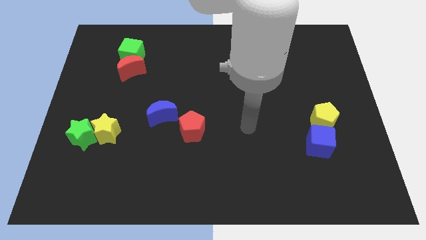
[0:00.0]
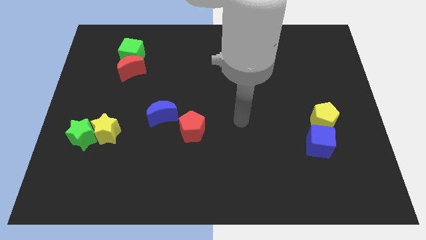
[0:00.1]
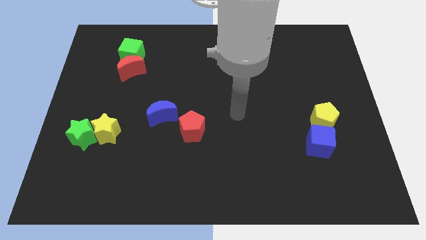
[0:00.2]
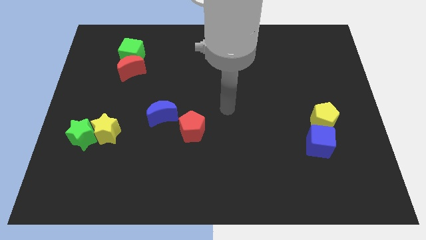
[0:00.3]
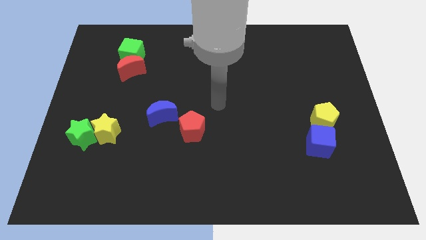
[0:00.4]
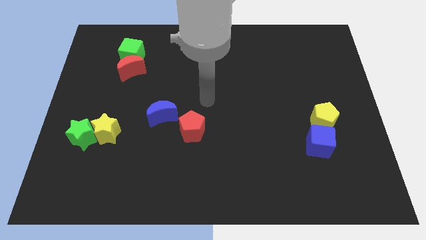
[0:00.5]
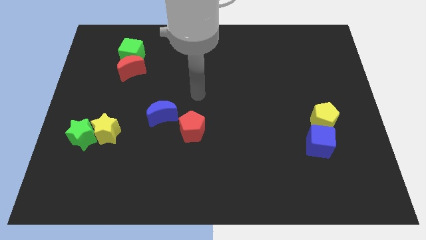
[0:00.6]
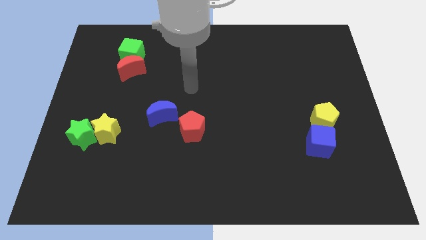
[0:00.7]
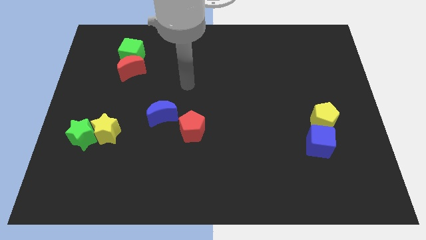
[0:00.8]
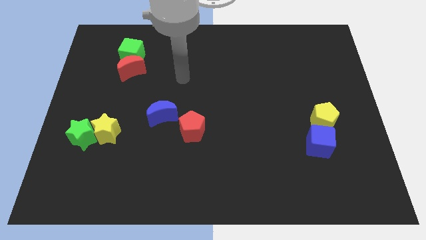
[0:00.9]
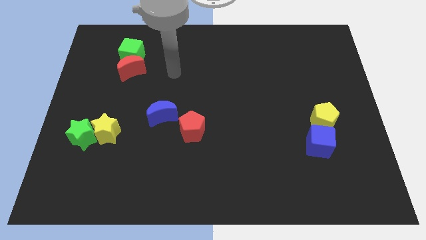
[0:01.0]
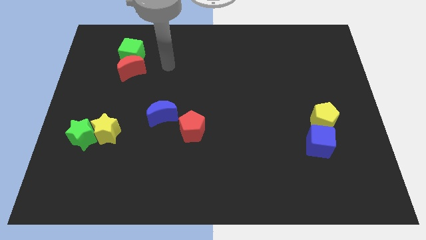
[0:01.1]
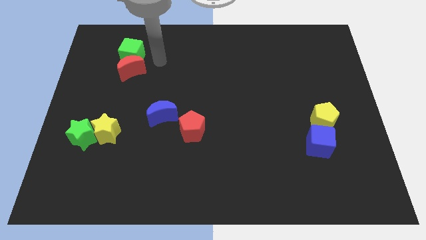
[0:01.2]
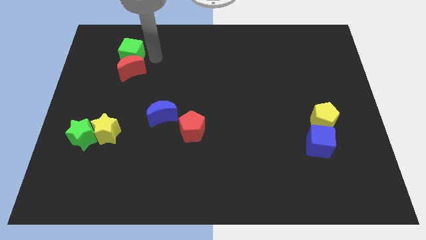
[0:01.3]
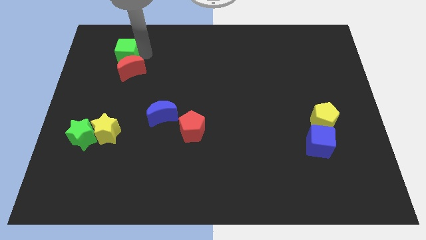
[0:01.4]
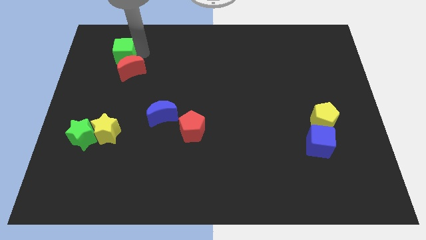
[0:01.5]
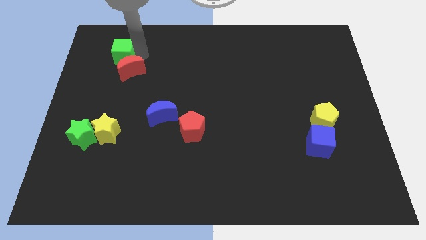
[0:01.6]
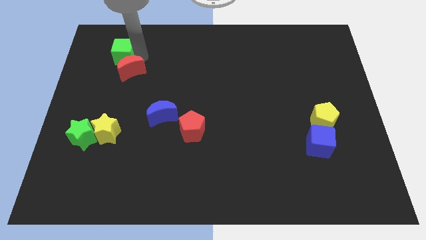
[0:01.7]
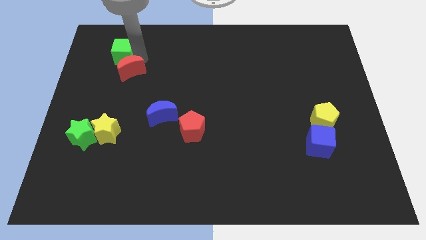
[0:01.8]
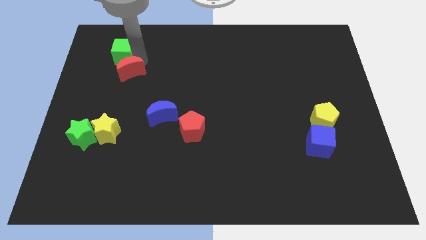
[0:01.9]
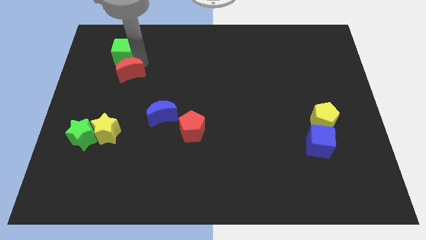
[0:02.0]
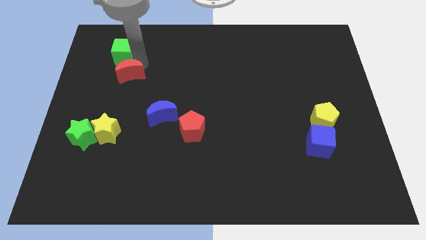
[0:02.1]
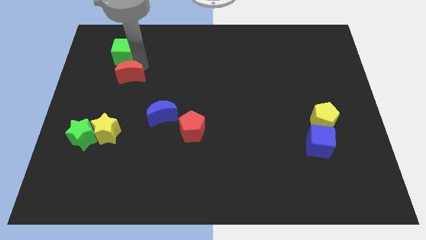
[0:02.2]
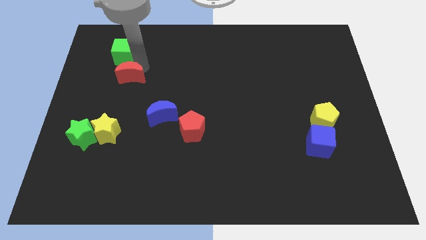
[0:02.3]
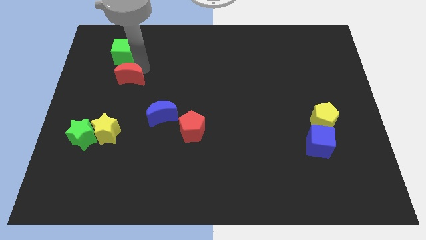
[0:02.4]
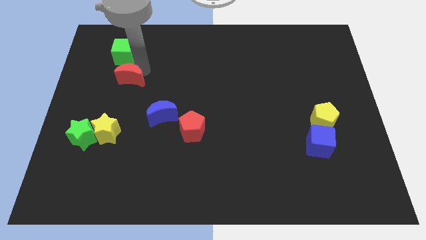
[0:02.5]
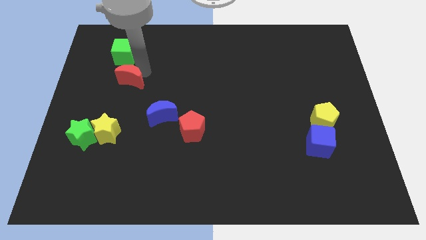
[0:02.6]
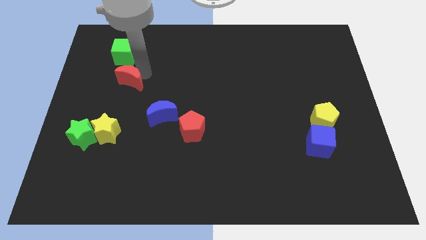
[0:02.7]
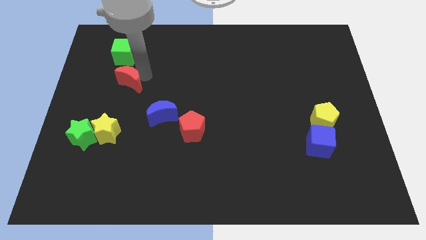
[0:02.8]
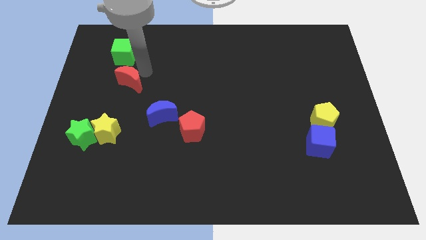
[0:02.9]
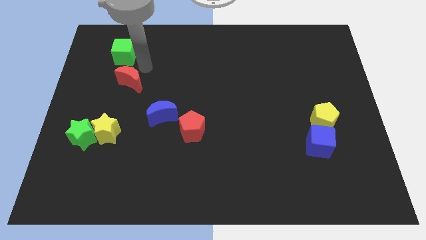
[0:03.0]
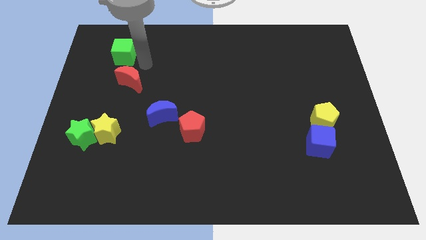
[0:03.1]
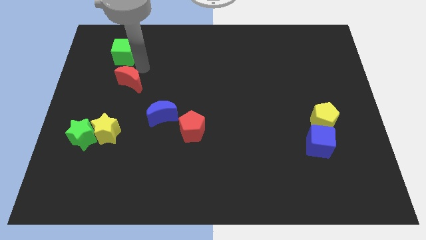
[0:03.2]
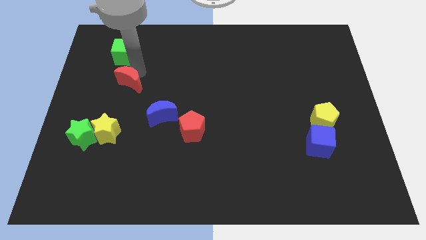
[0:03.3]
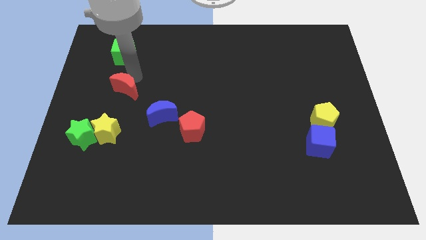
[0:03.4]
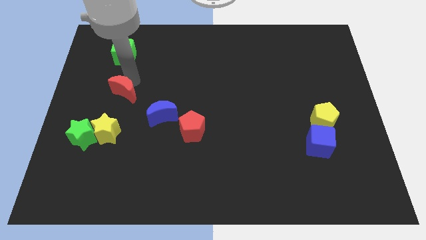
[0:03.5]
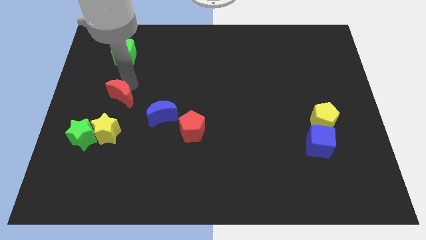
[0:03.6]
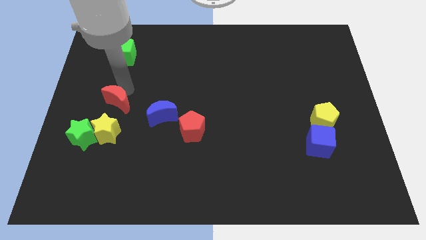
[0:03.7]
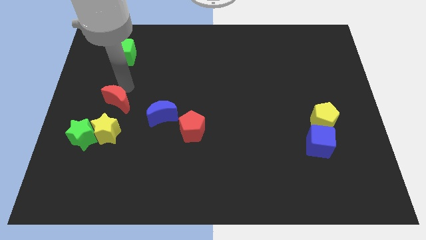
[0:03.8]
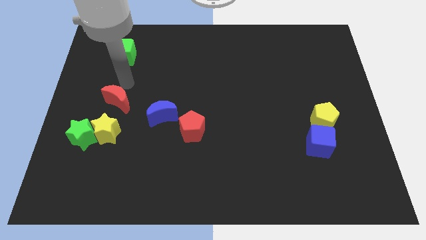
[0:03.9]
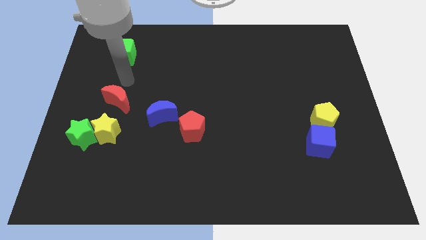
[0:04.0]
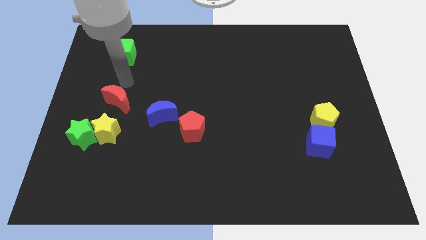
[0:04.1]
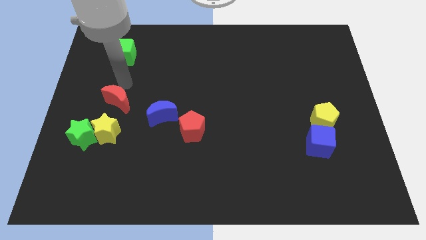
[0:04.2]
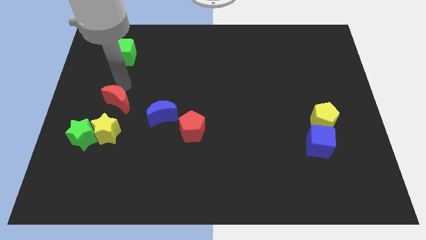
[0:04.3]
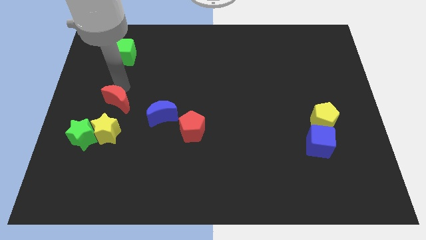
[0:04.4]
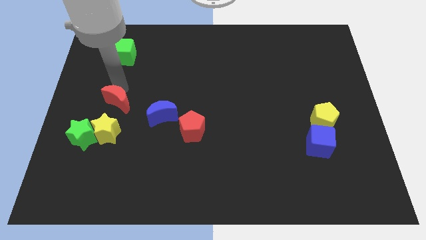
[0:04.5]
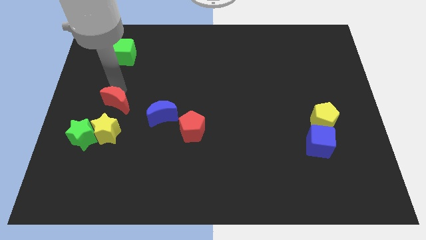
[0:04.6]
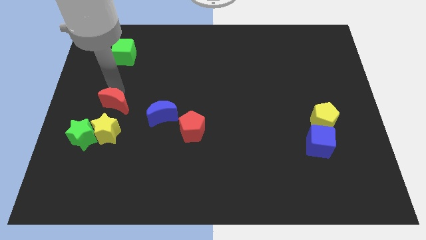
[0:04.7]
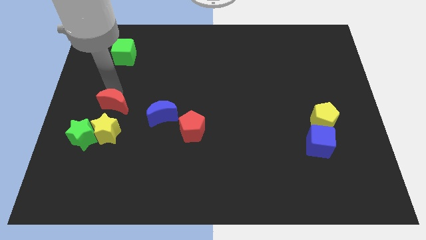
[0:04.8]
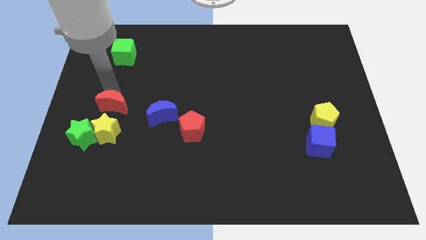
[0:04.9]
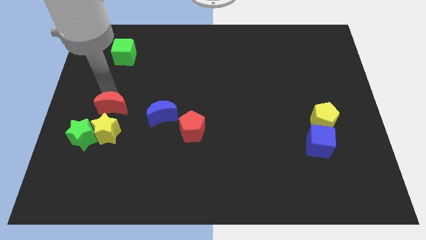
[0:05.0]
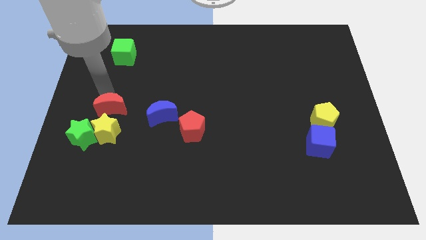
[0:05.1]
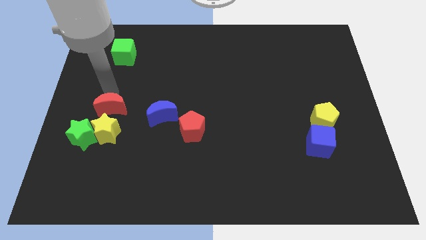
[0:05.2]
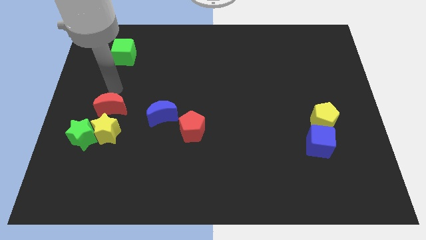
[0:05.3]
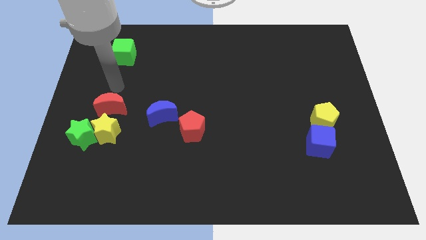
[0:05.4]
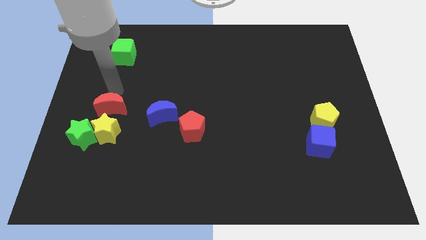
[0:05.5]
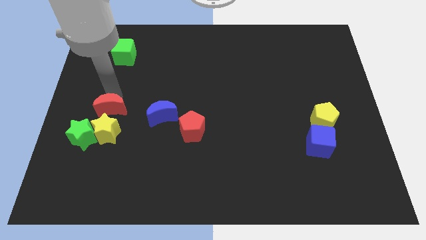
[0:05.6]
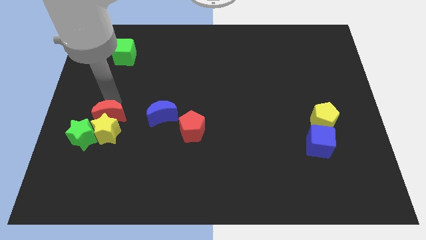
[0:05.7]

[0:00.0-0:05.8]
put the red moon to the yellow star

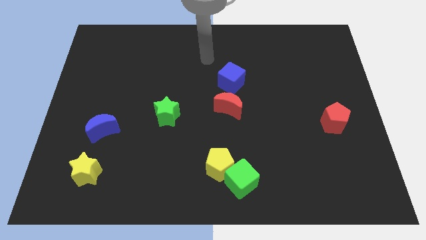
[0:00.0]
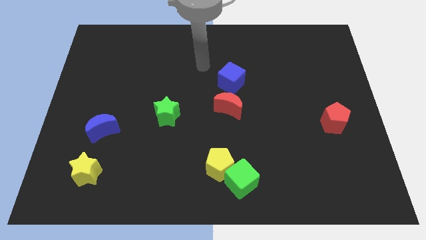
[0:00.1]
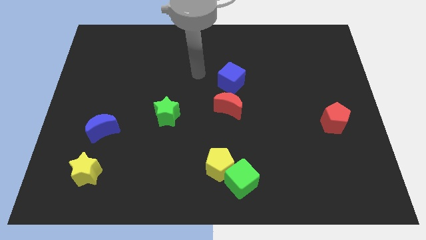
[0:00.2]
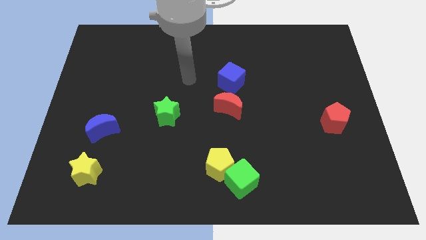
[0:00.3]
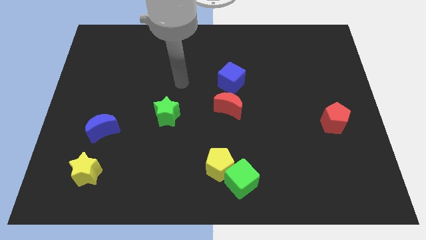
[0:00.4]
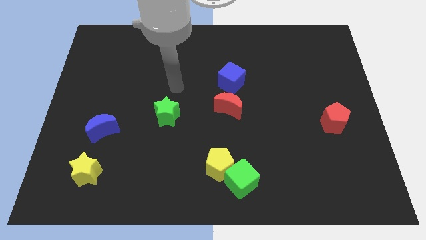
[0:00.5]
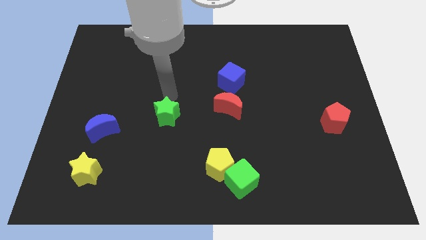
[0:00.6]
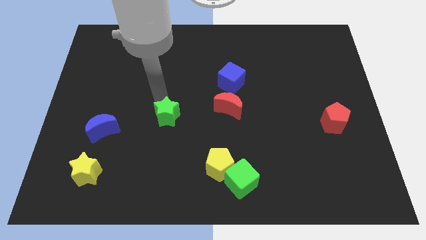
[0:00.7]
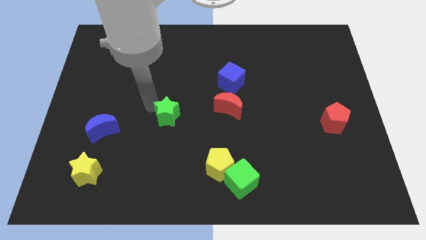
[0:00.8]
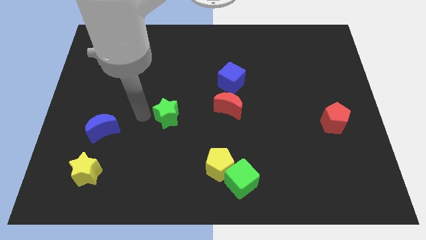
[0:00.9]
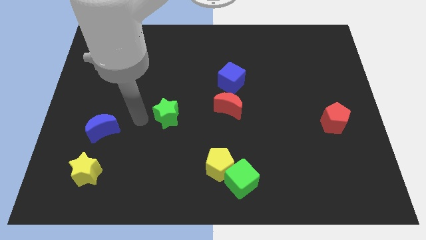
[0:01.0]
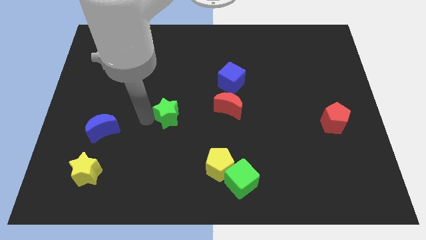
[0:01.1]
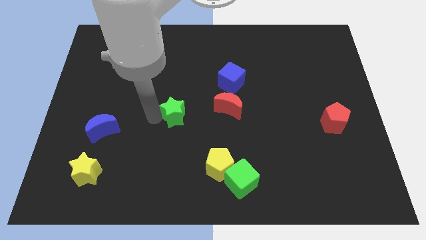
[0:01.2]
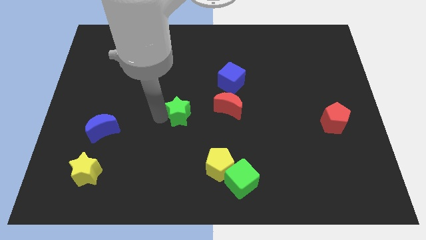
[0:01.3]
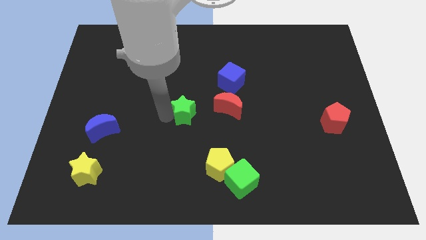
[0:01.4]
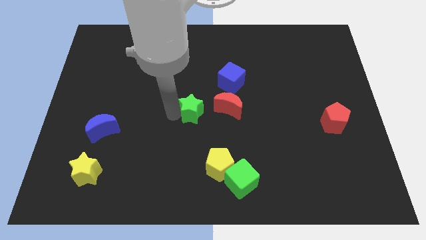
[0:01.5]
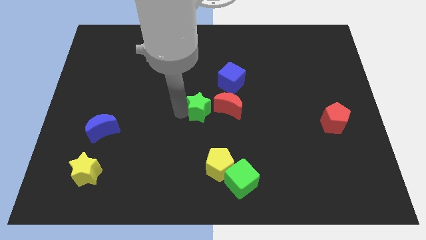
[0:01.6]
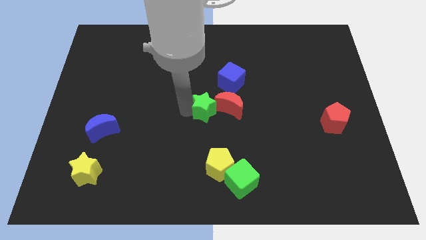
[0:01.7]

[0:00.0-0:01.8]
slide the green star towards the red moon
